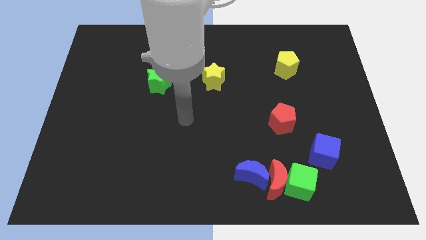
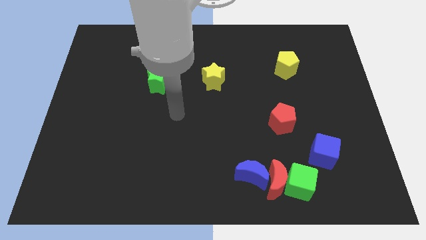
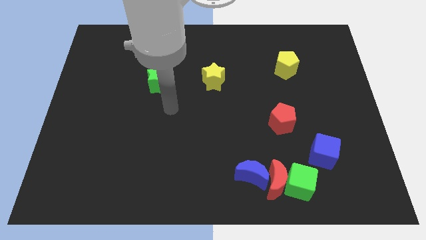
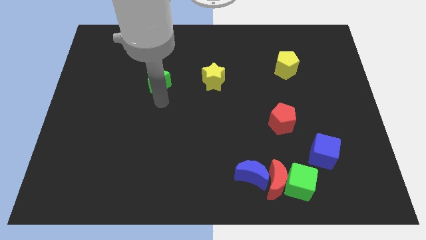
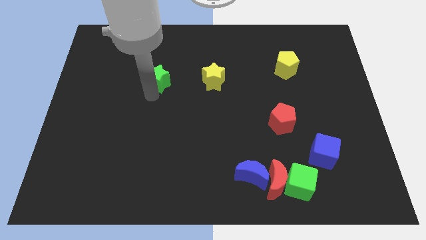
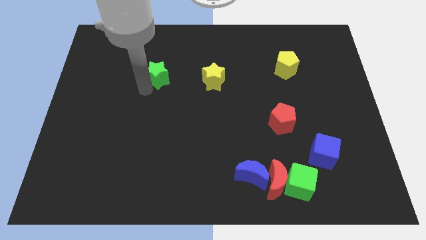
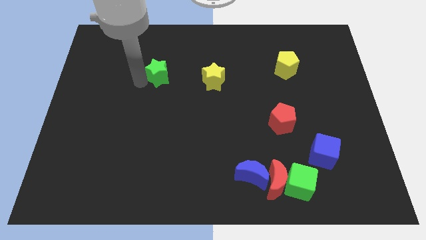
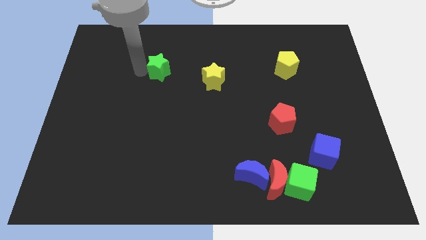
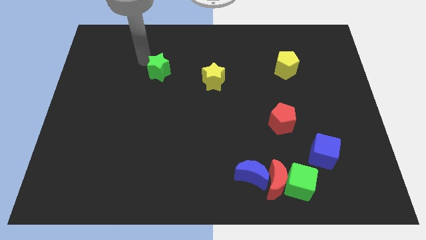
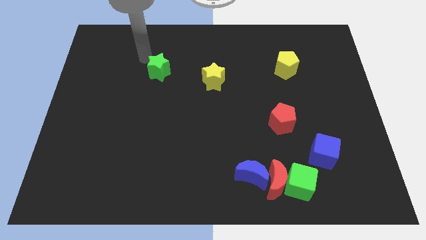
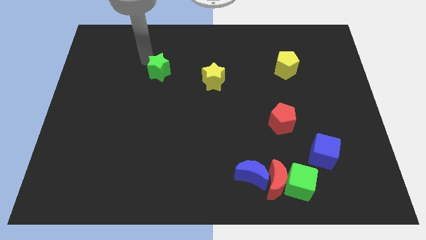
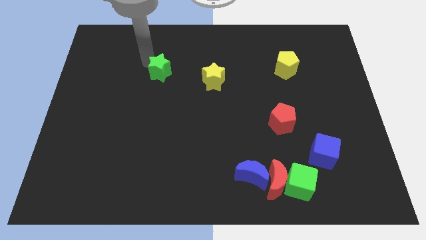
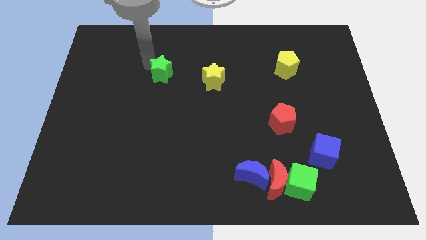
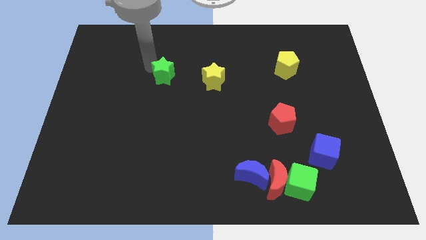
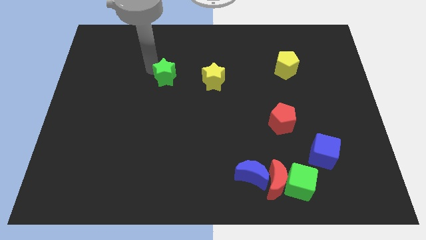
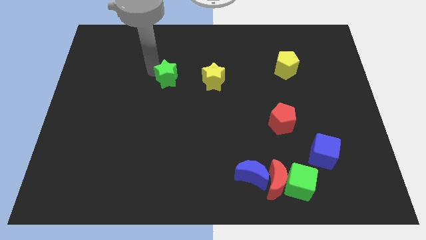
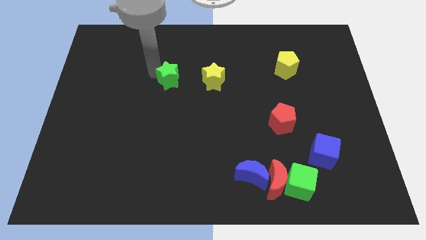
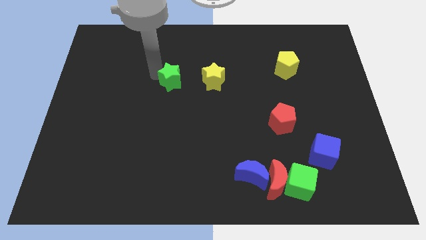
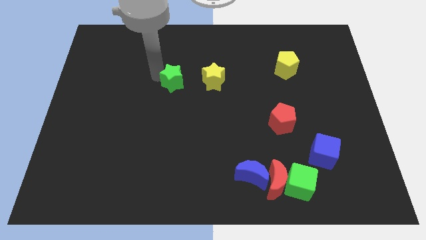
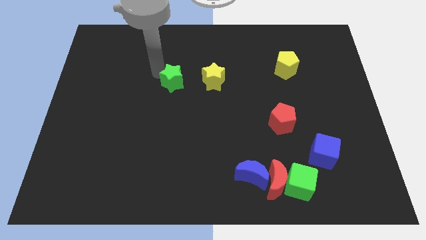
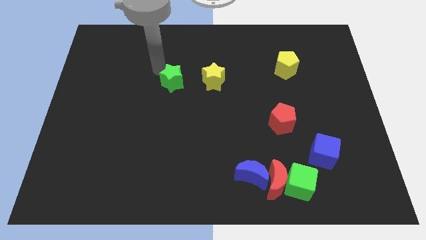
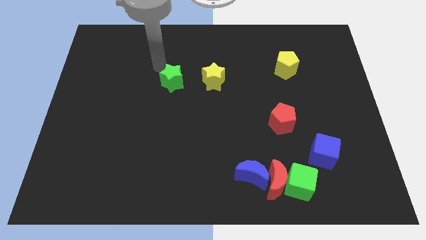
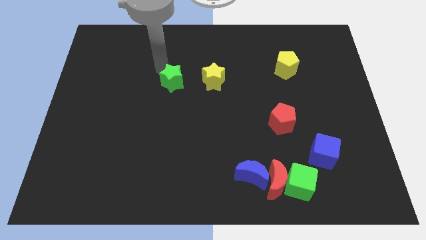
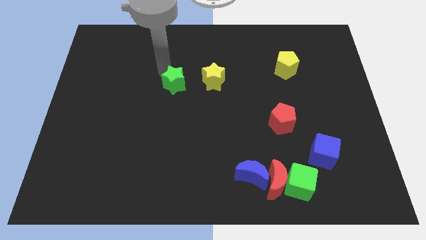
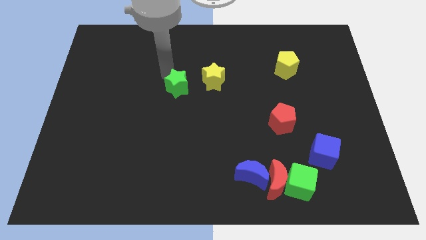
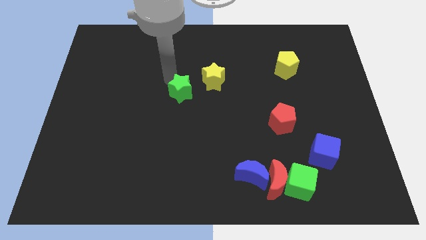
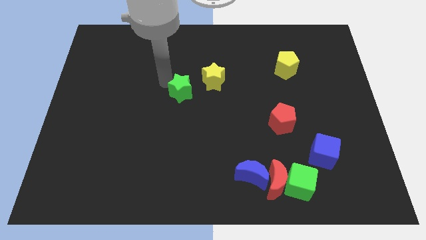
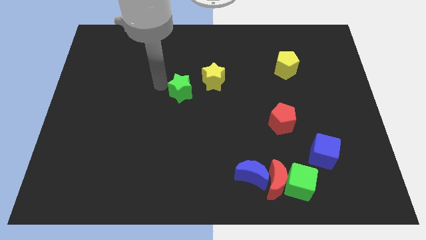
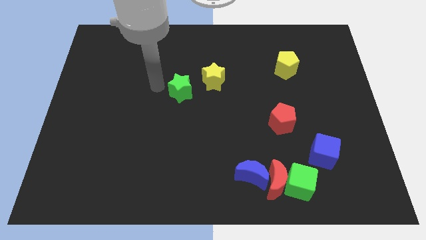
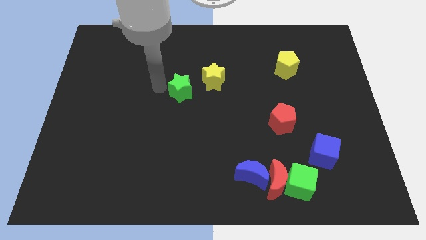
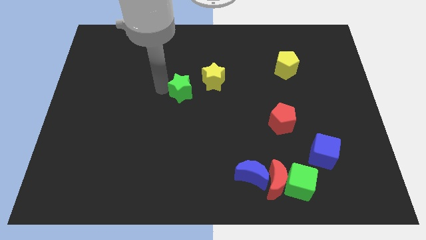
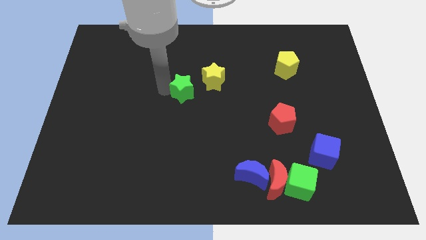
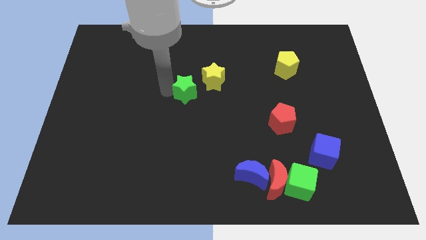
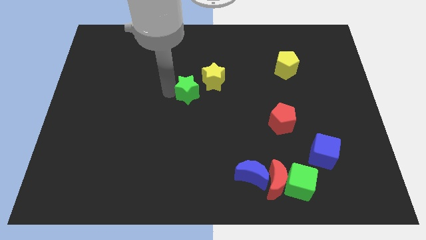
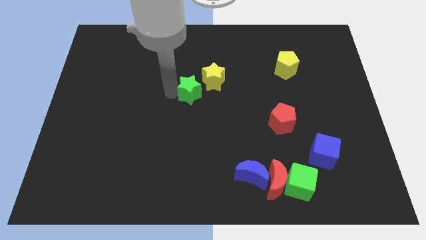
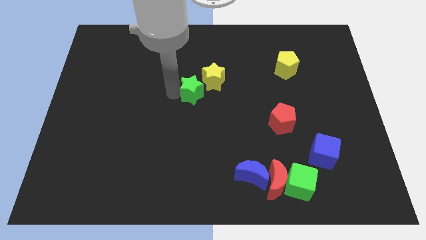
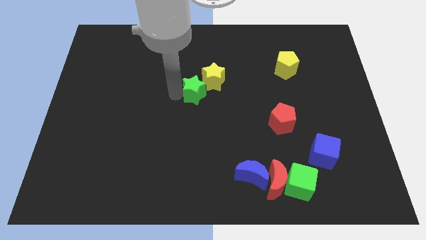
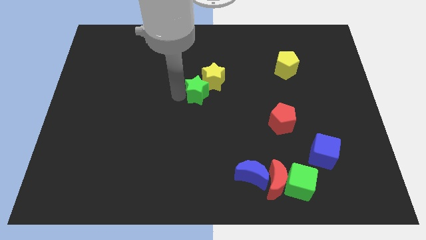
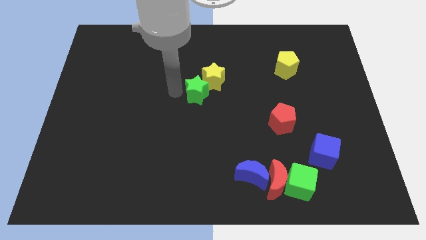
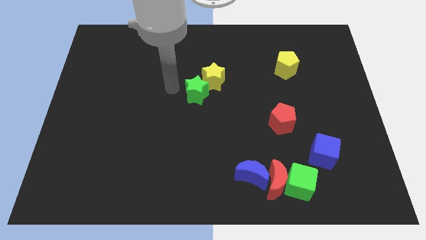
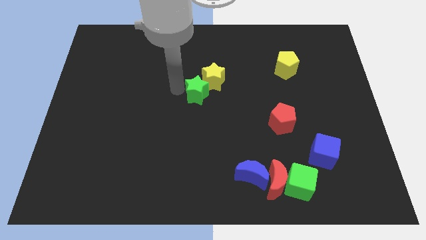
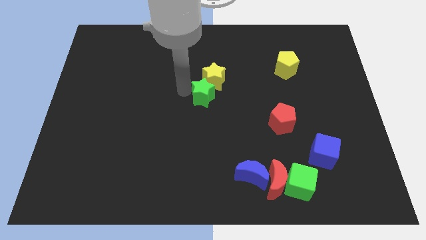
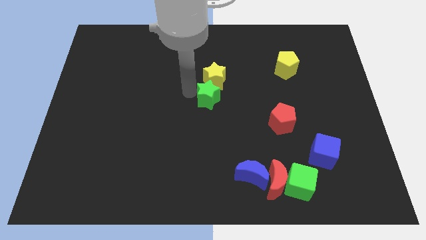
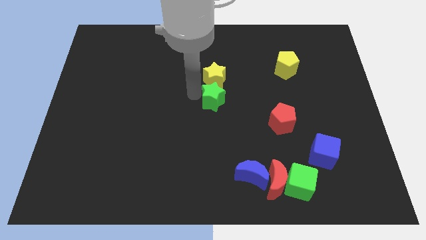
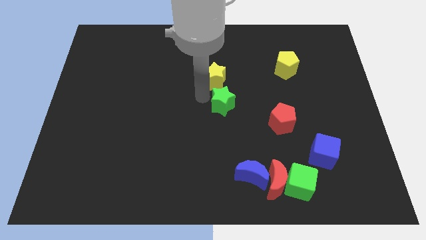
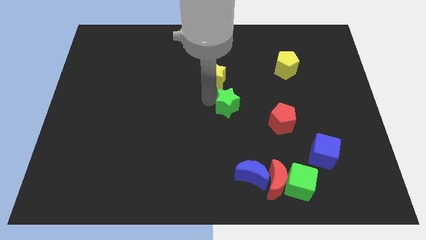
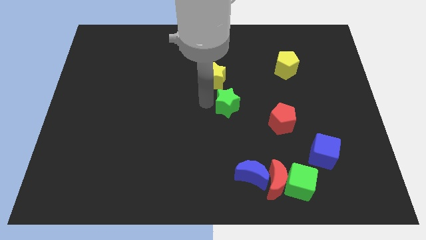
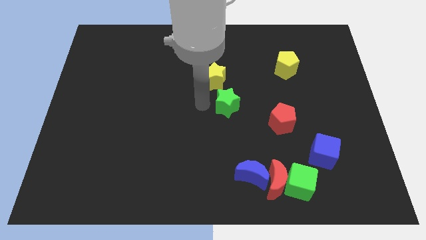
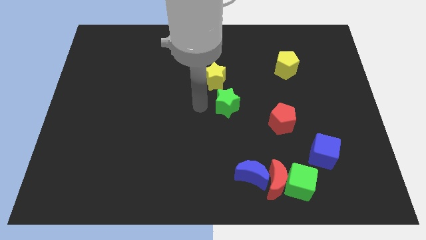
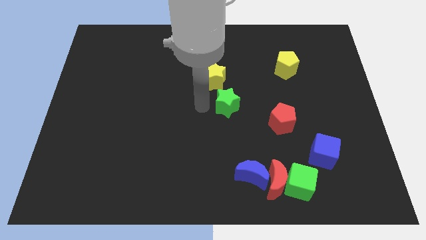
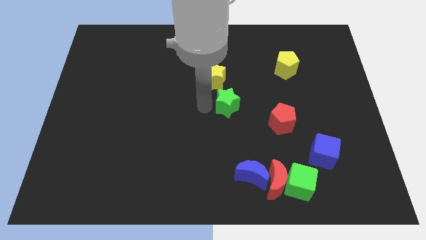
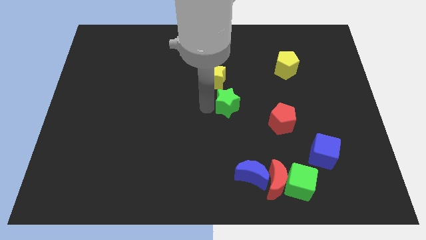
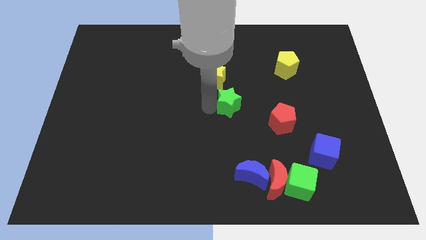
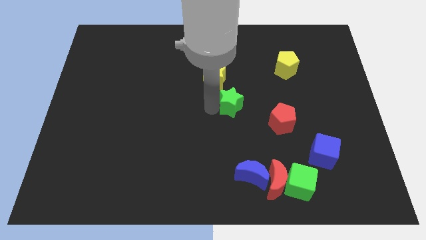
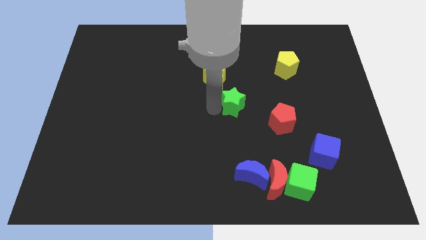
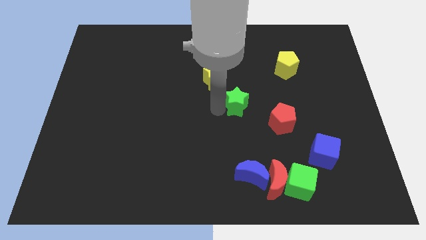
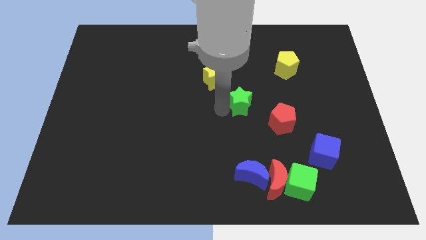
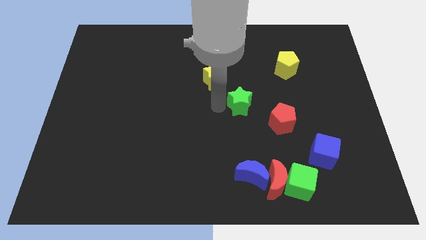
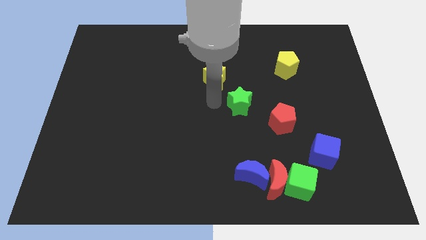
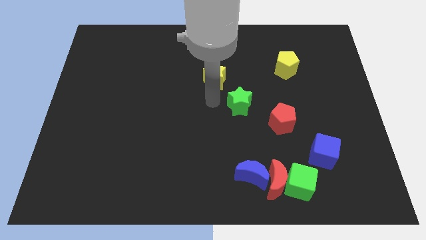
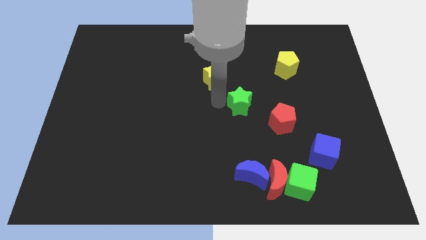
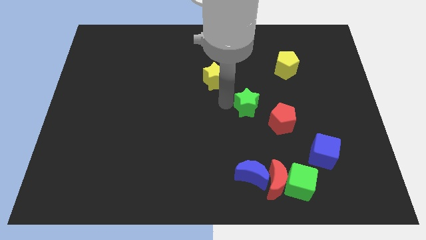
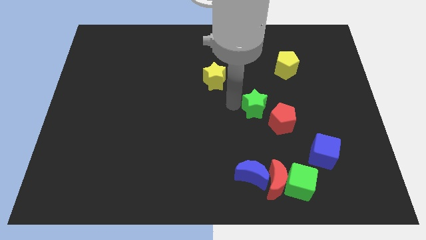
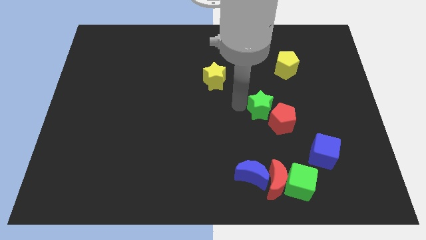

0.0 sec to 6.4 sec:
push the green star close to the red pentagon

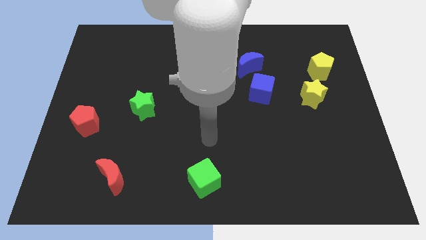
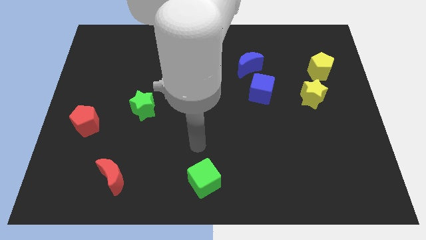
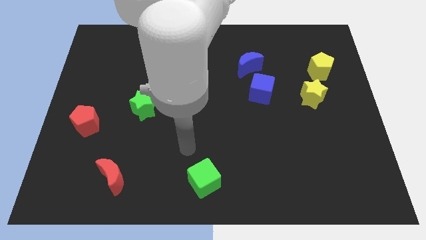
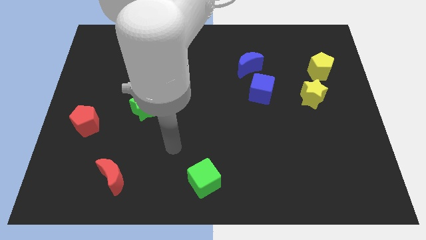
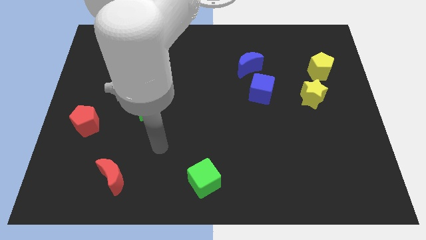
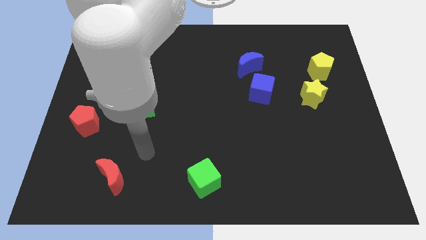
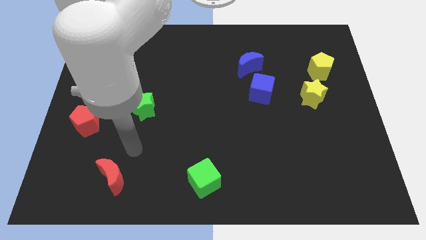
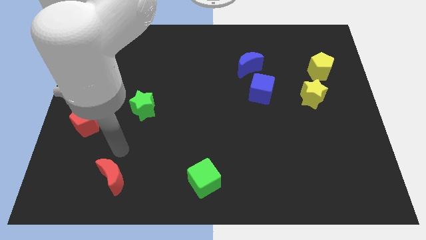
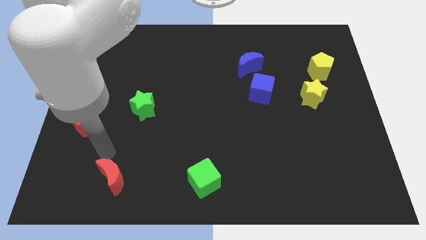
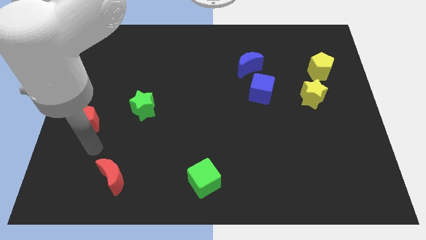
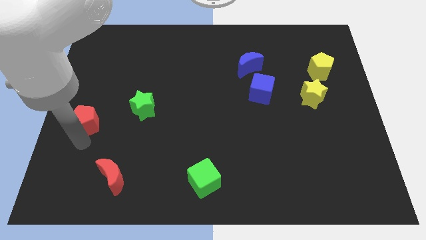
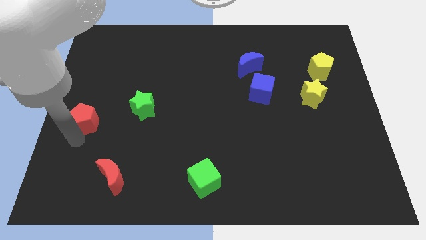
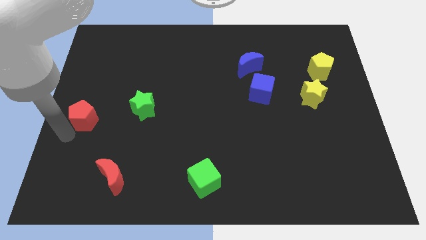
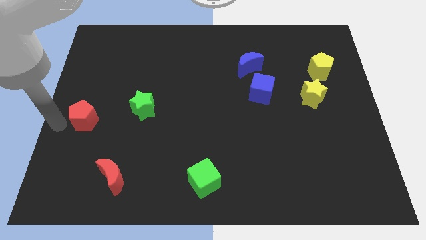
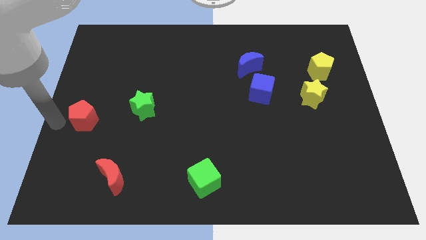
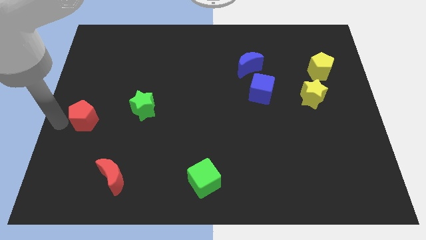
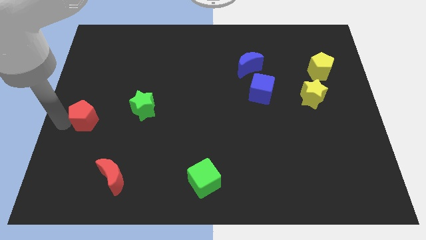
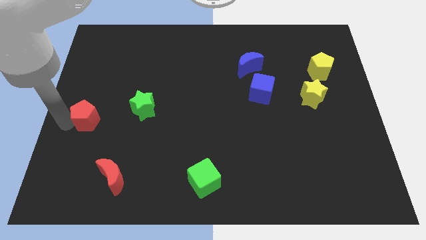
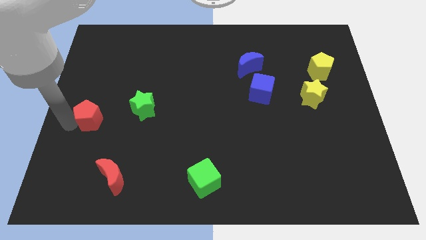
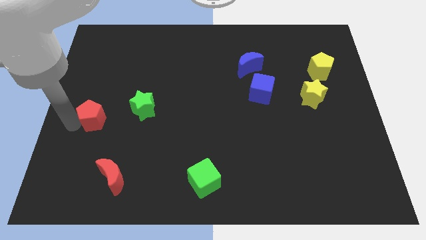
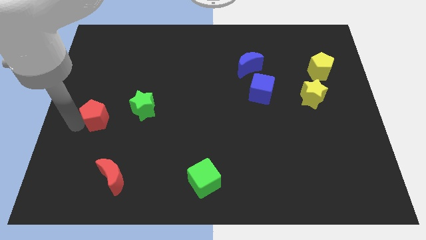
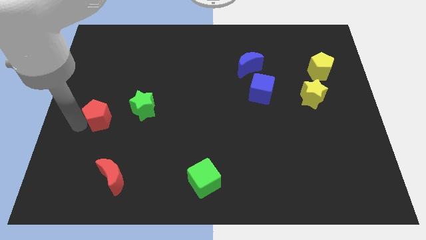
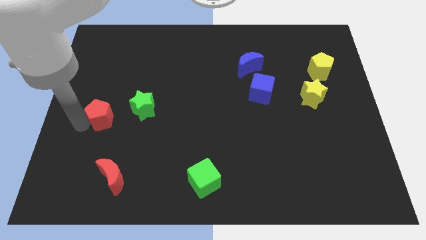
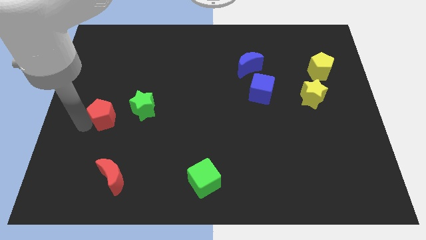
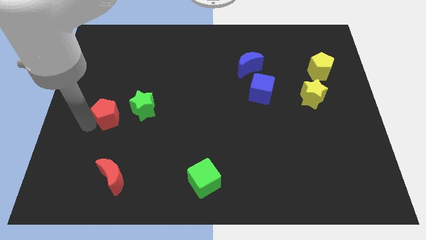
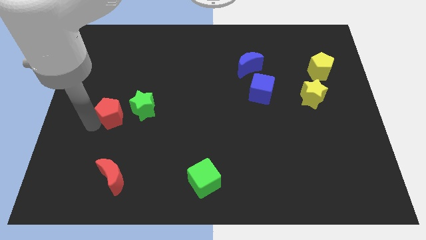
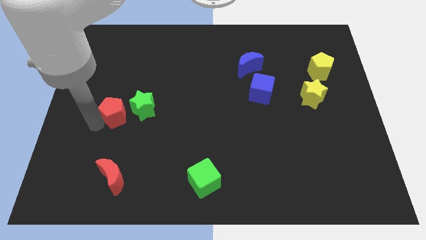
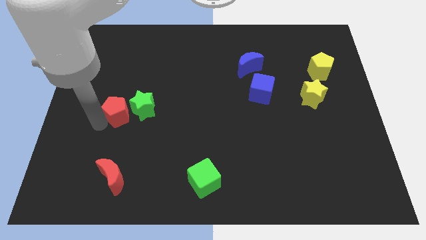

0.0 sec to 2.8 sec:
move the red pentagon next to the green star
